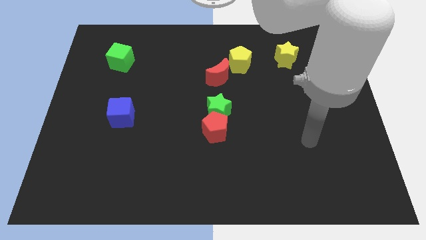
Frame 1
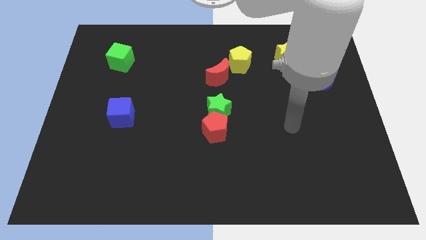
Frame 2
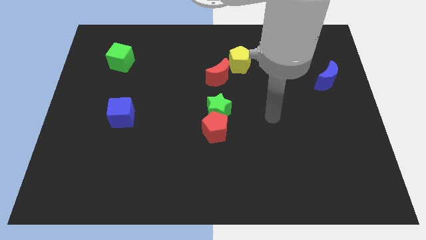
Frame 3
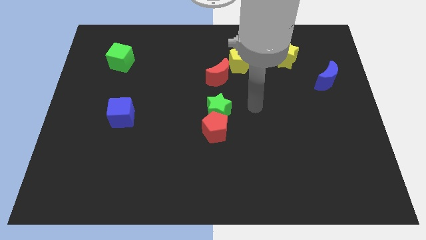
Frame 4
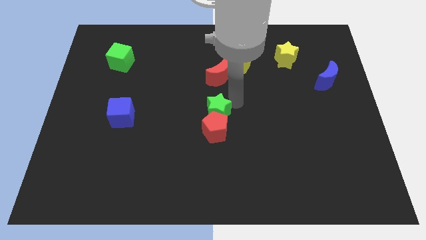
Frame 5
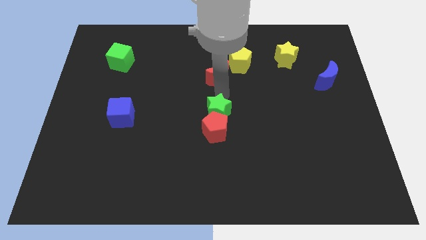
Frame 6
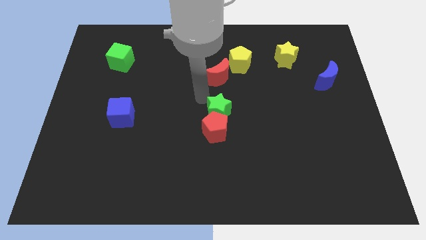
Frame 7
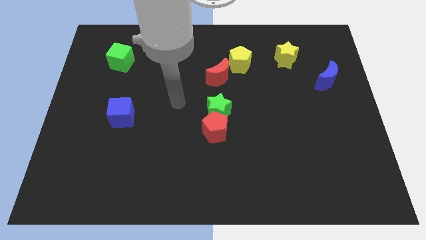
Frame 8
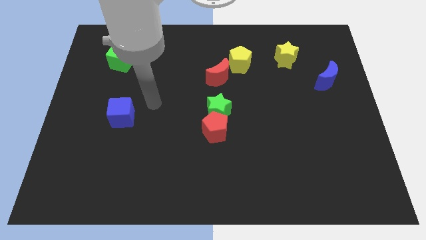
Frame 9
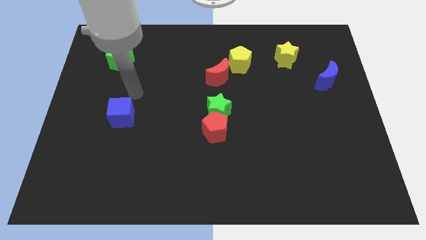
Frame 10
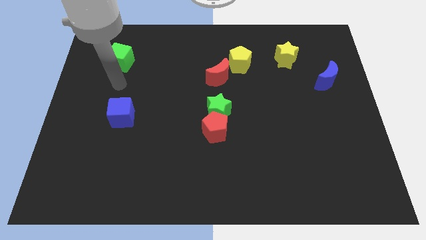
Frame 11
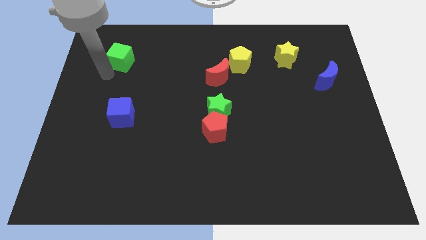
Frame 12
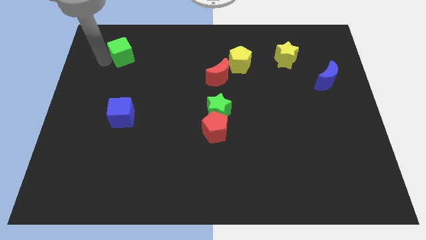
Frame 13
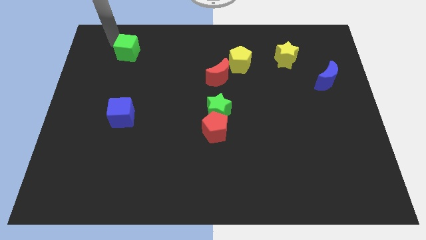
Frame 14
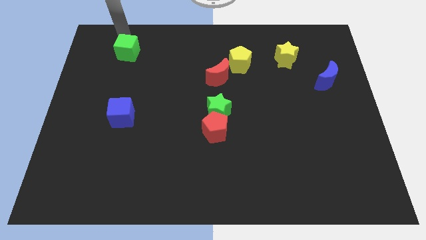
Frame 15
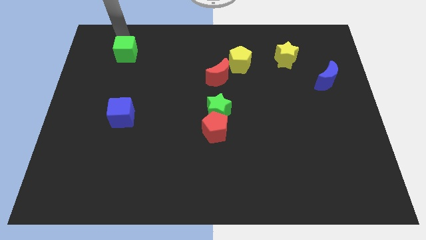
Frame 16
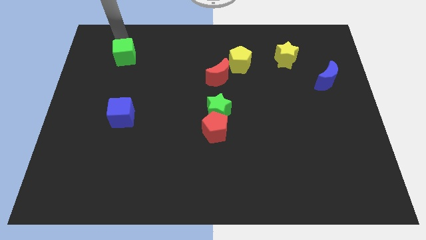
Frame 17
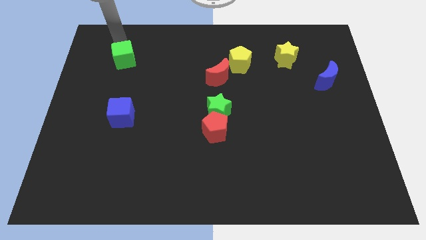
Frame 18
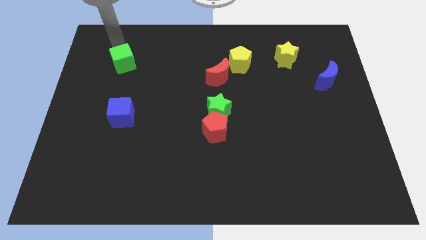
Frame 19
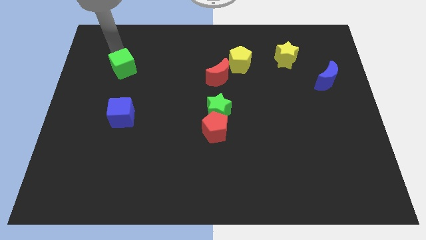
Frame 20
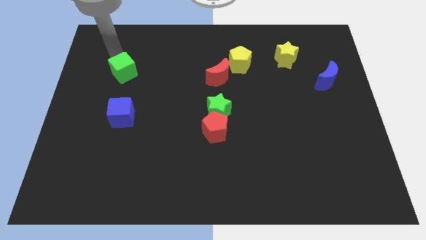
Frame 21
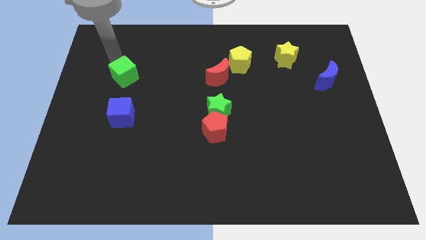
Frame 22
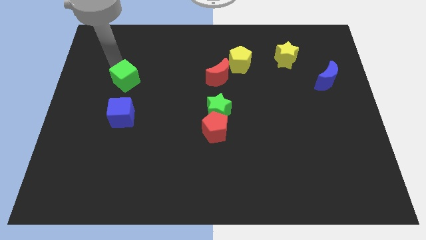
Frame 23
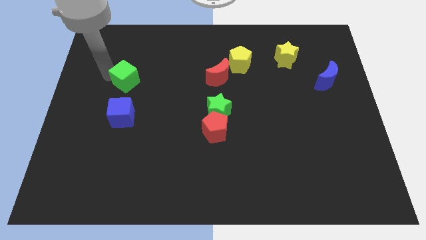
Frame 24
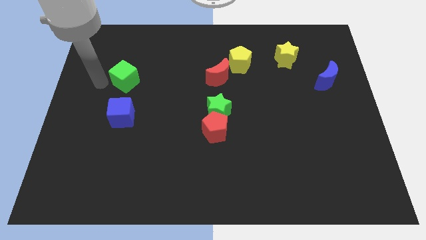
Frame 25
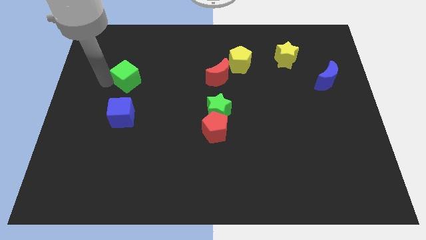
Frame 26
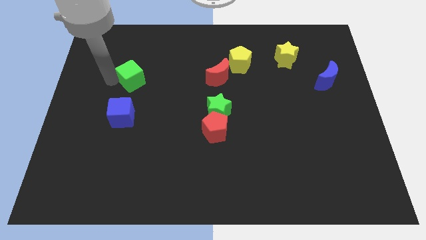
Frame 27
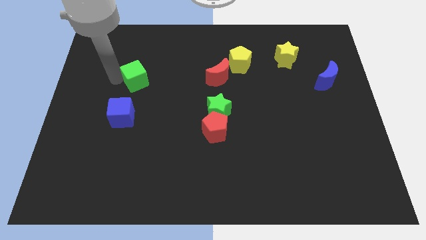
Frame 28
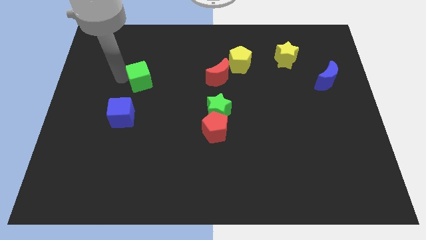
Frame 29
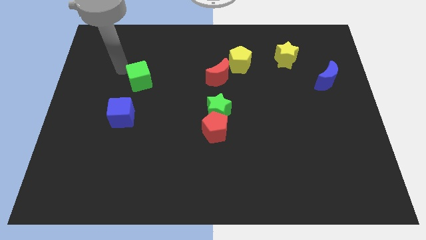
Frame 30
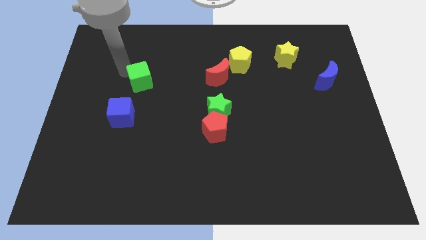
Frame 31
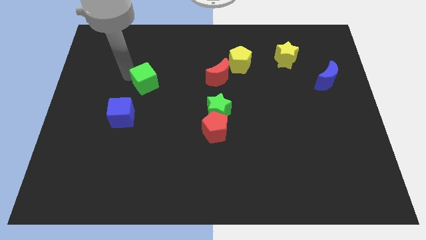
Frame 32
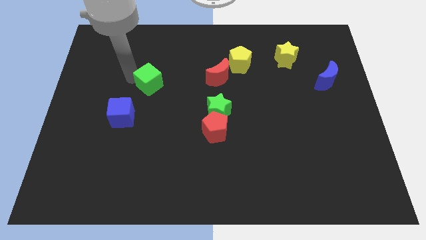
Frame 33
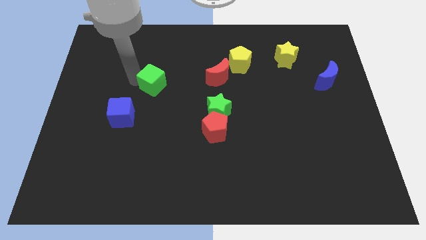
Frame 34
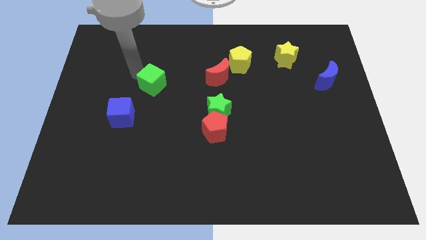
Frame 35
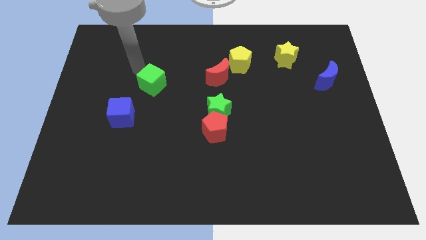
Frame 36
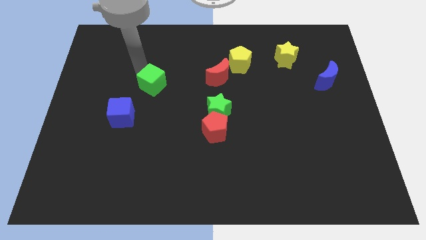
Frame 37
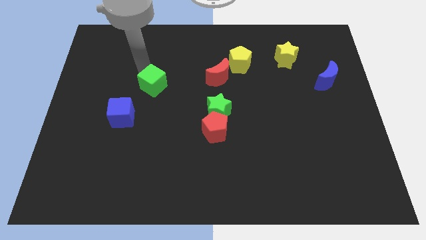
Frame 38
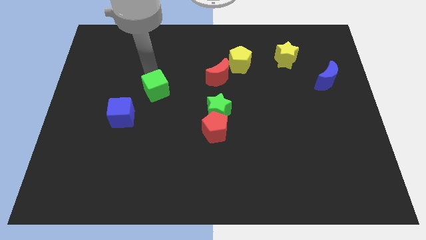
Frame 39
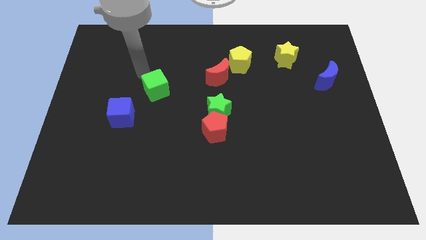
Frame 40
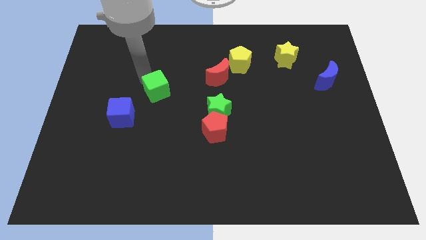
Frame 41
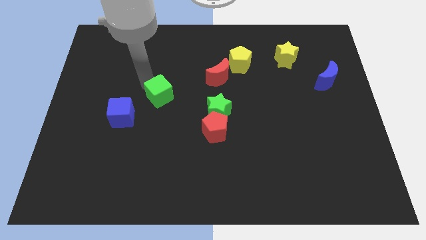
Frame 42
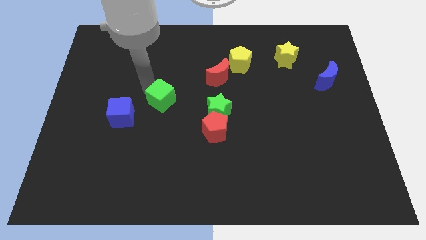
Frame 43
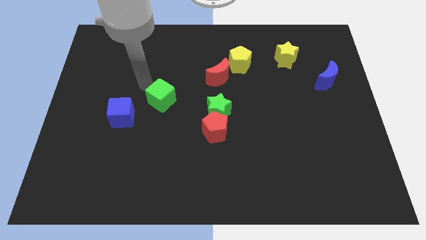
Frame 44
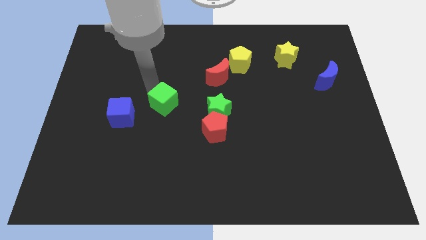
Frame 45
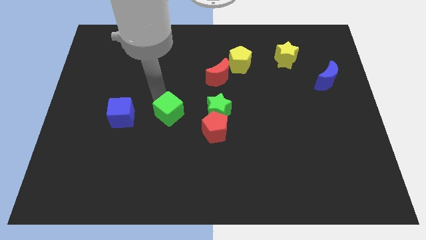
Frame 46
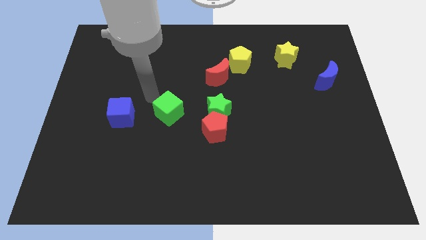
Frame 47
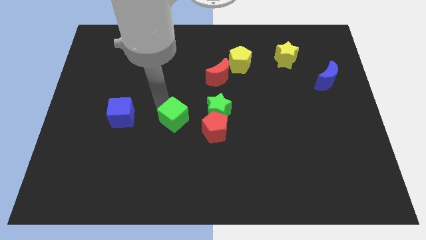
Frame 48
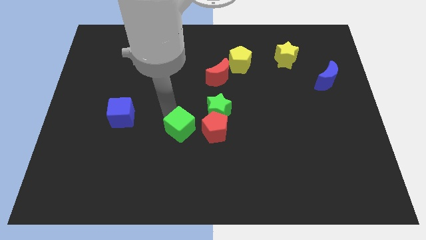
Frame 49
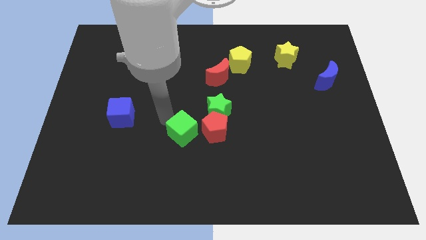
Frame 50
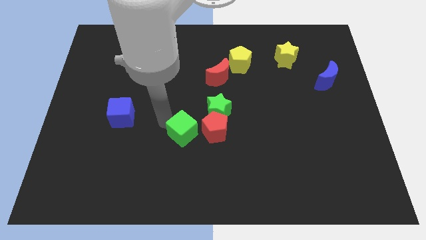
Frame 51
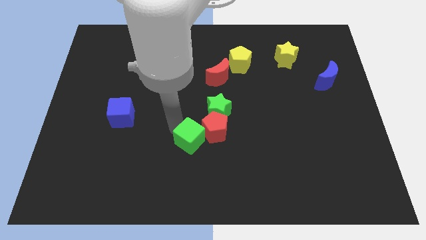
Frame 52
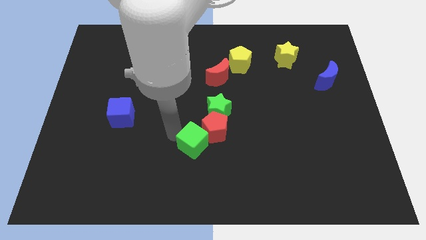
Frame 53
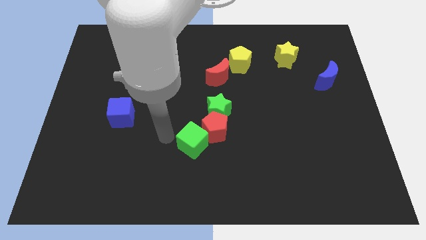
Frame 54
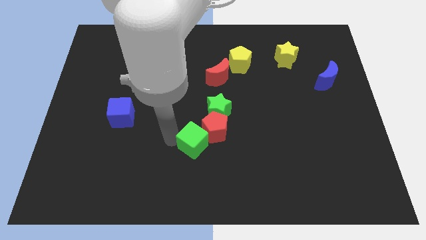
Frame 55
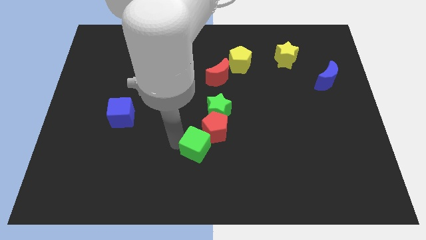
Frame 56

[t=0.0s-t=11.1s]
slide the green cube below the green star

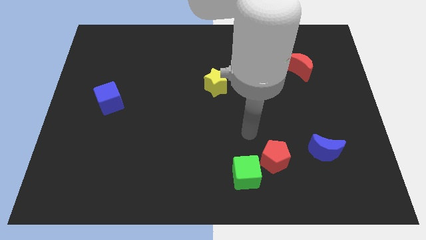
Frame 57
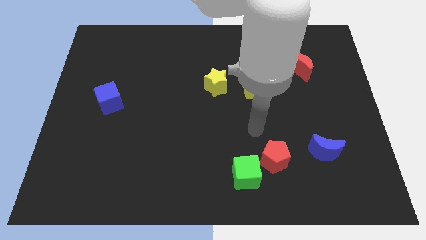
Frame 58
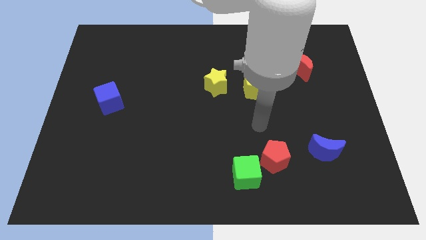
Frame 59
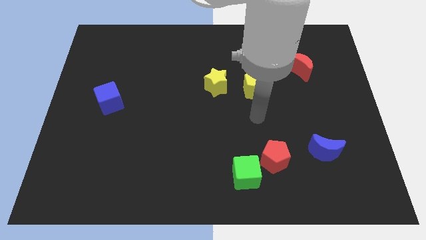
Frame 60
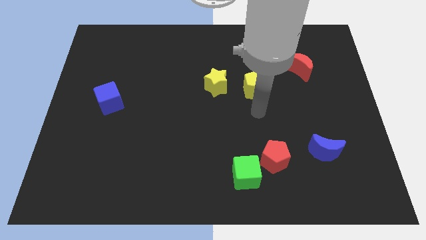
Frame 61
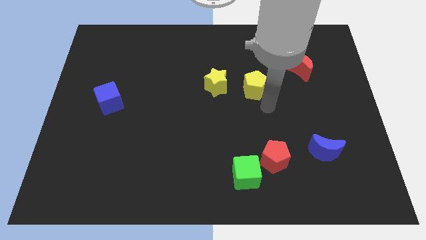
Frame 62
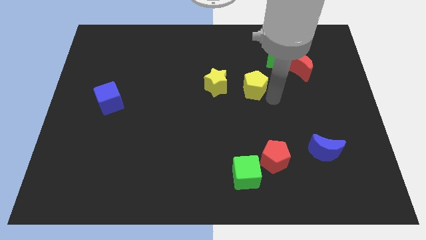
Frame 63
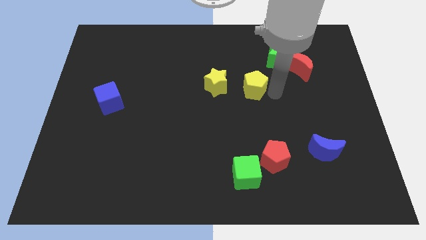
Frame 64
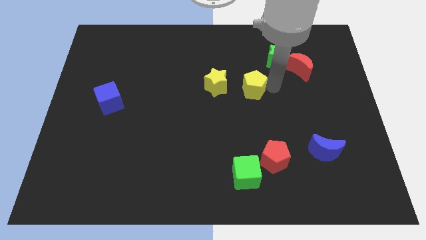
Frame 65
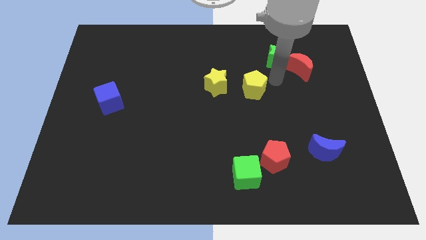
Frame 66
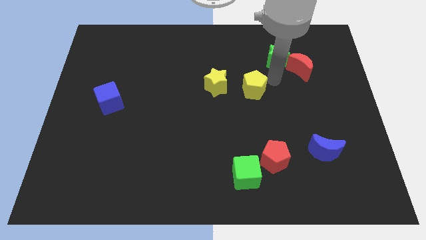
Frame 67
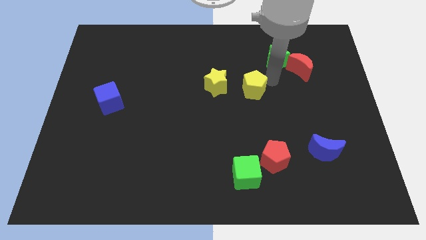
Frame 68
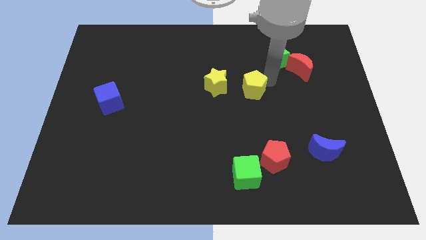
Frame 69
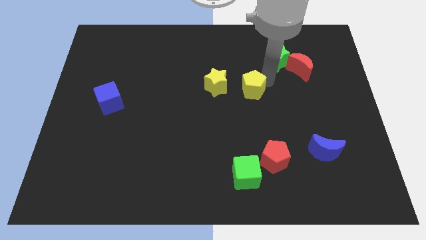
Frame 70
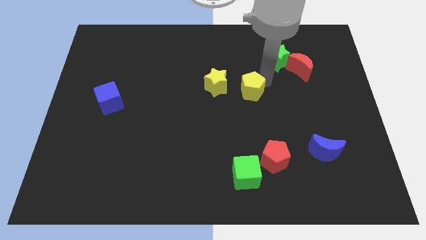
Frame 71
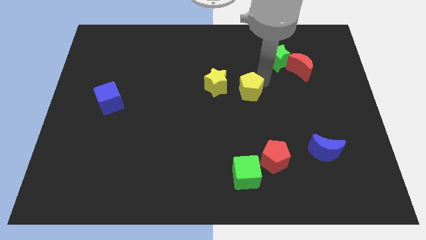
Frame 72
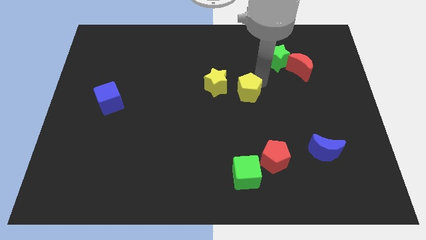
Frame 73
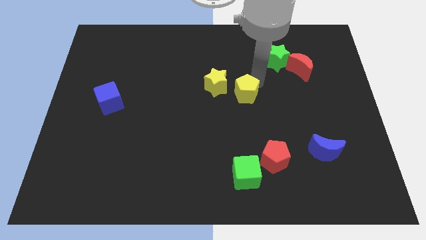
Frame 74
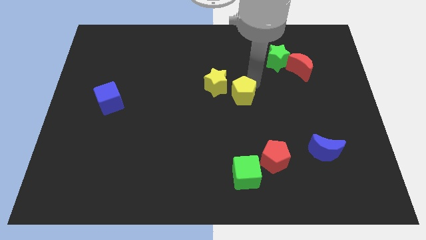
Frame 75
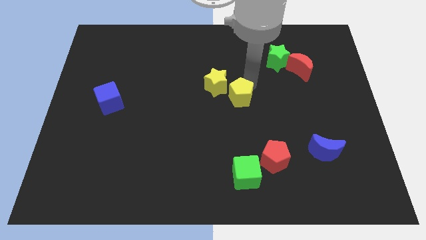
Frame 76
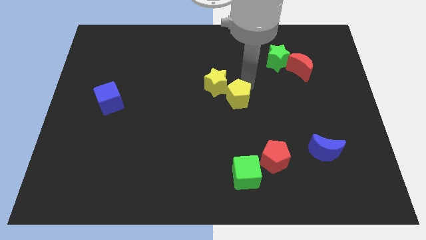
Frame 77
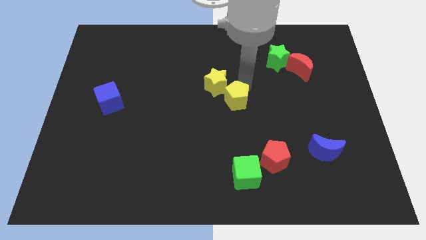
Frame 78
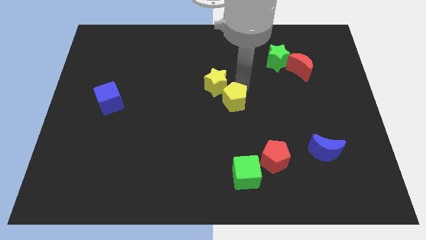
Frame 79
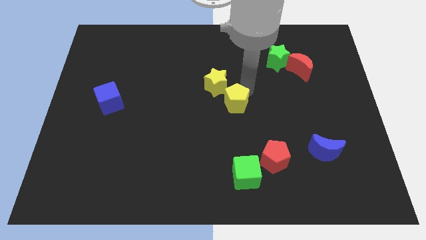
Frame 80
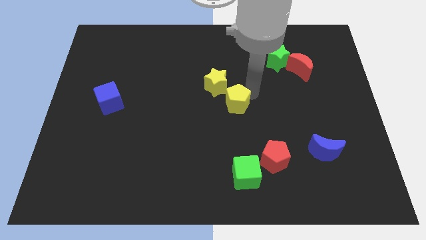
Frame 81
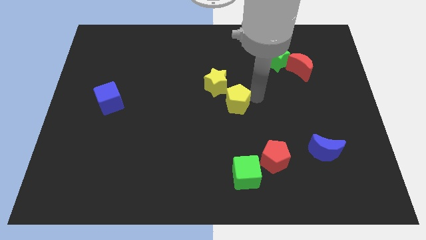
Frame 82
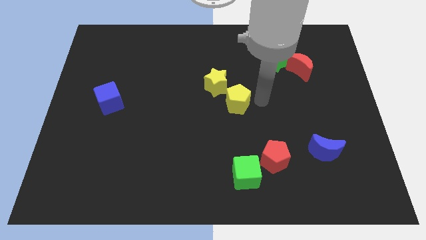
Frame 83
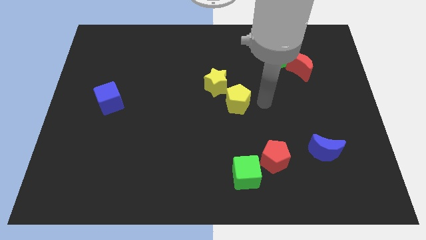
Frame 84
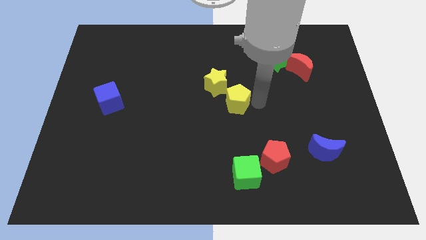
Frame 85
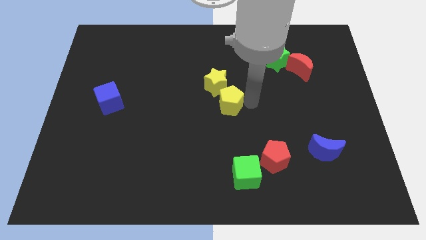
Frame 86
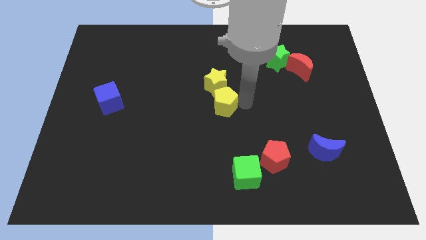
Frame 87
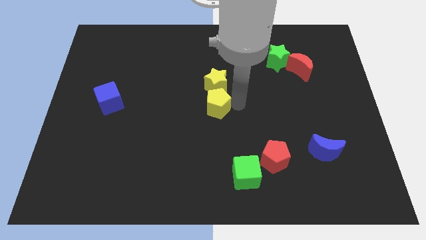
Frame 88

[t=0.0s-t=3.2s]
slide the yellow pentagon diagonally down and to the left of the yellow star
